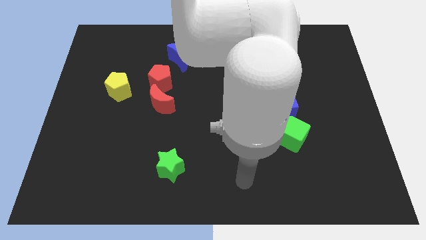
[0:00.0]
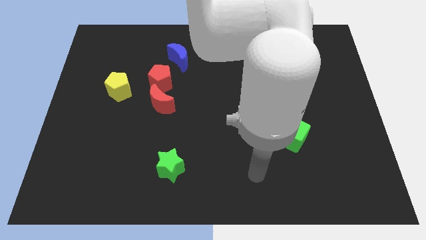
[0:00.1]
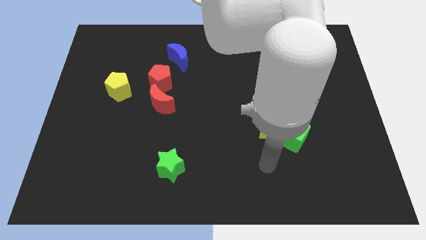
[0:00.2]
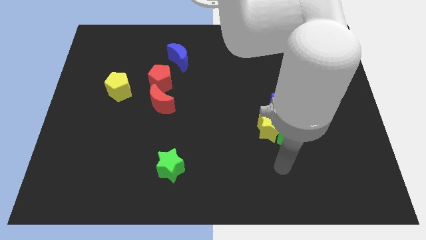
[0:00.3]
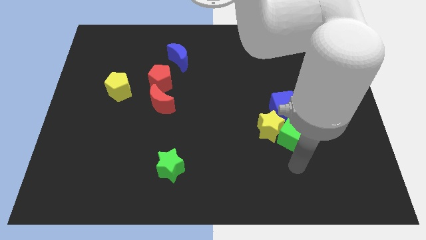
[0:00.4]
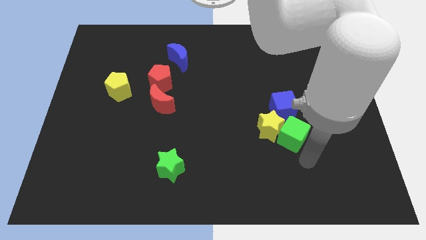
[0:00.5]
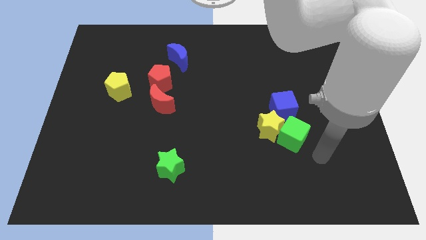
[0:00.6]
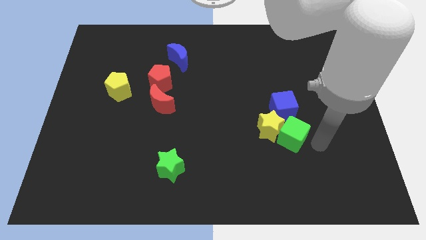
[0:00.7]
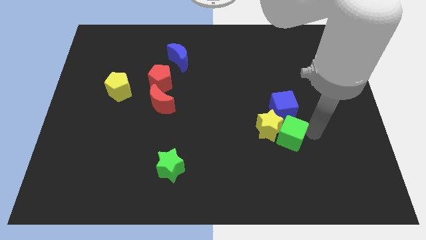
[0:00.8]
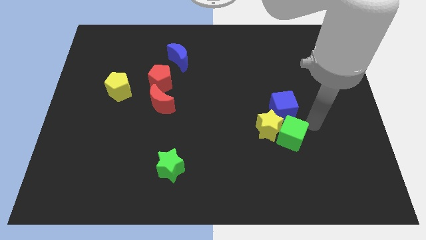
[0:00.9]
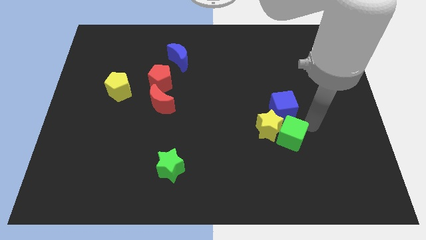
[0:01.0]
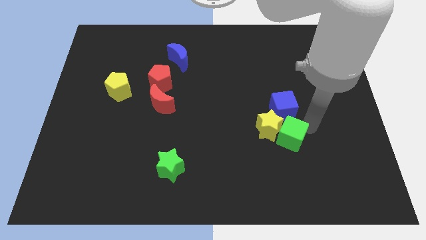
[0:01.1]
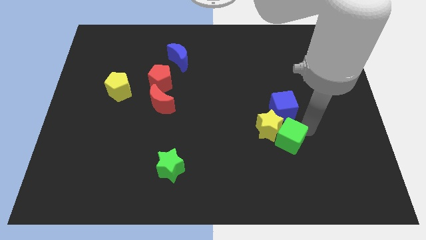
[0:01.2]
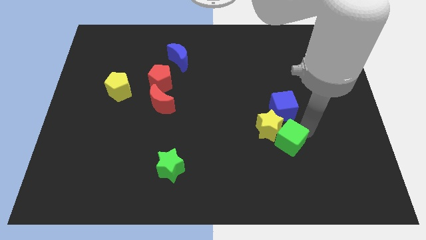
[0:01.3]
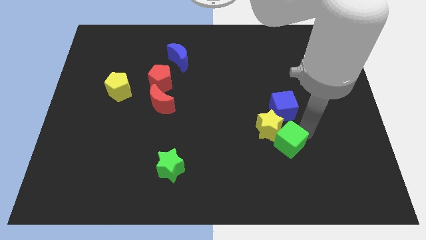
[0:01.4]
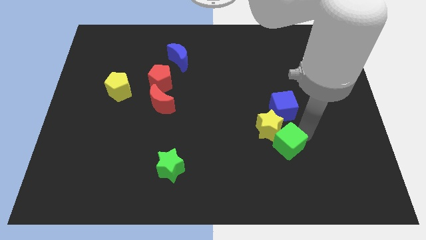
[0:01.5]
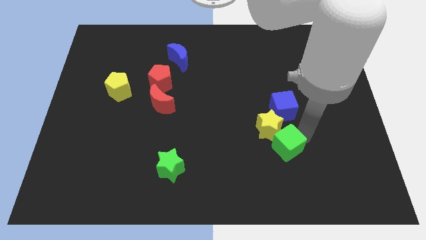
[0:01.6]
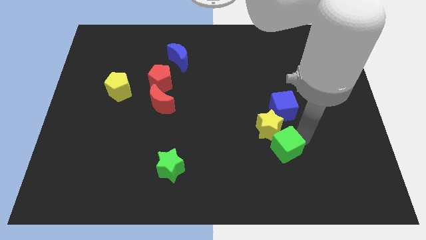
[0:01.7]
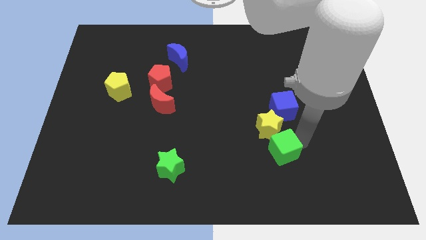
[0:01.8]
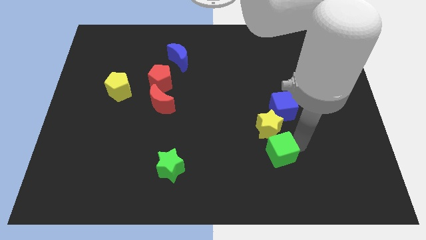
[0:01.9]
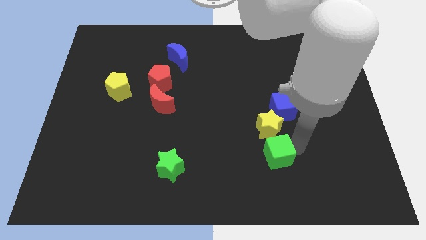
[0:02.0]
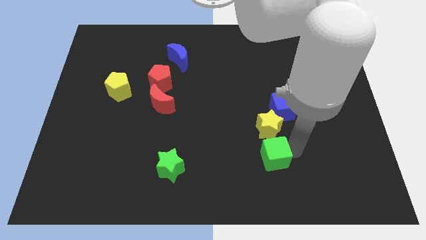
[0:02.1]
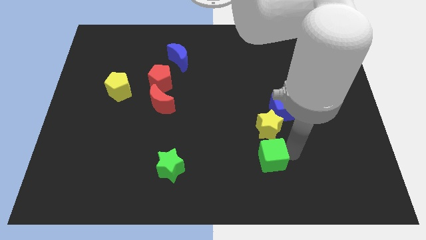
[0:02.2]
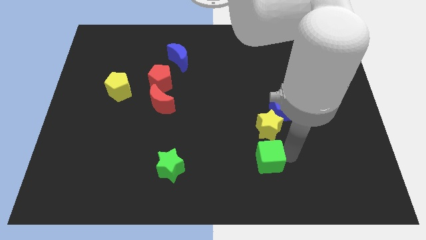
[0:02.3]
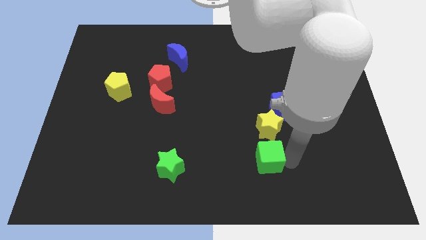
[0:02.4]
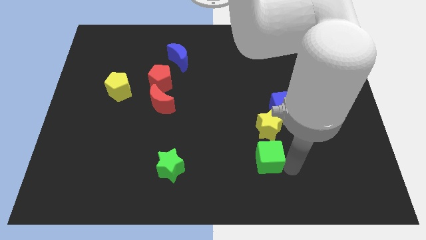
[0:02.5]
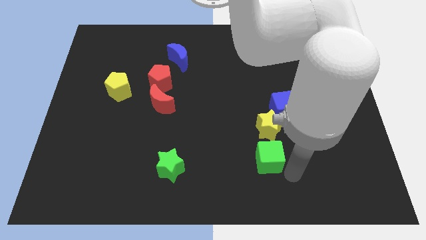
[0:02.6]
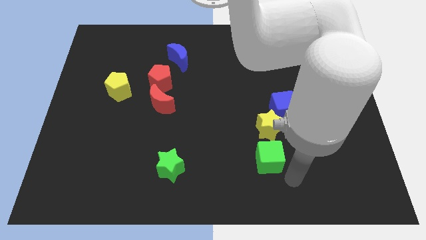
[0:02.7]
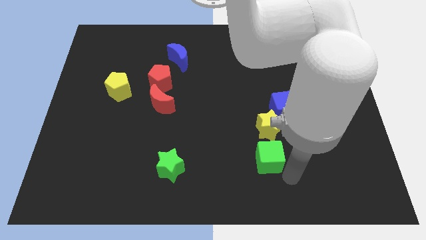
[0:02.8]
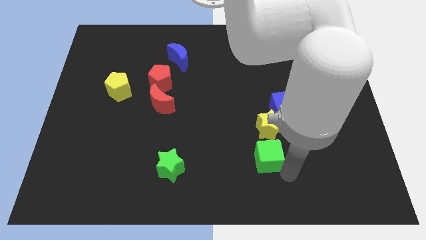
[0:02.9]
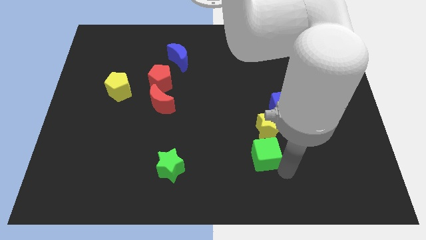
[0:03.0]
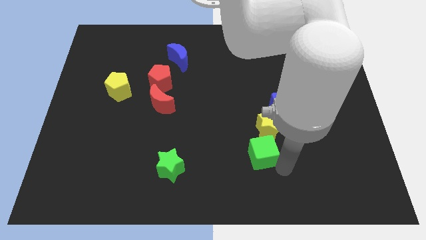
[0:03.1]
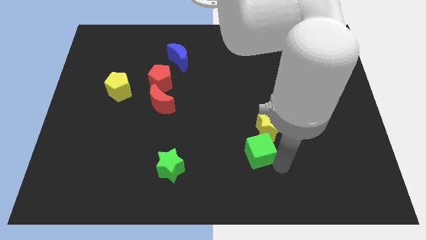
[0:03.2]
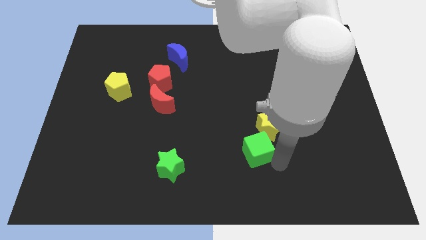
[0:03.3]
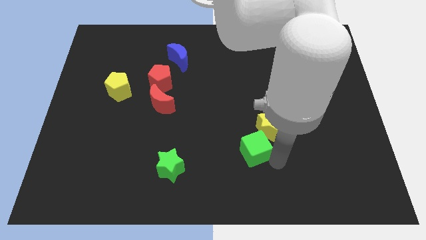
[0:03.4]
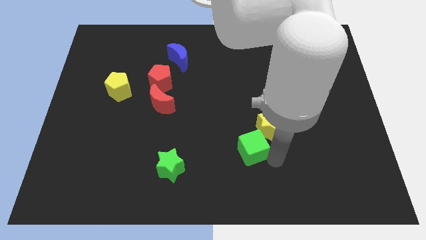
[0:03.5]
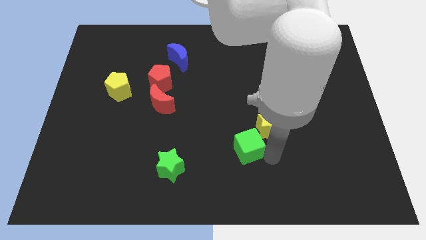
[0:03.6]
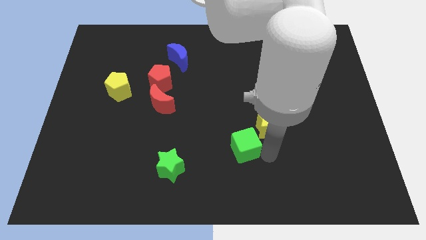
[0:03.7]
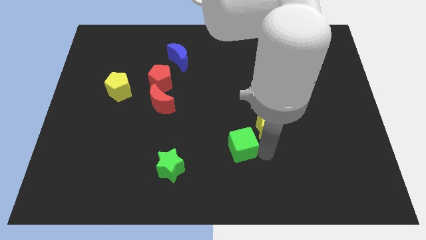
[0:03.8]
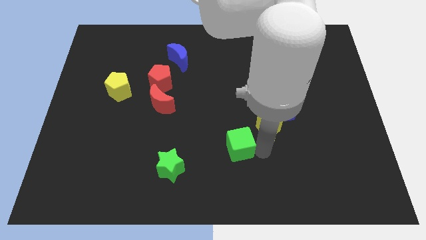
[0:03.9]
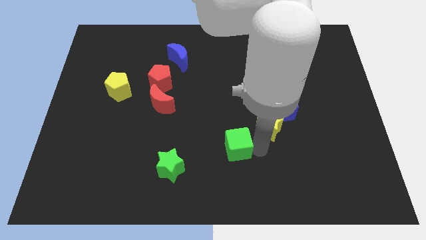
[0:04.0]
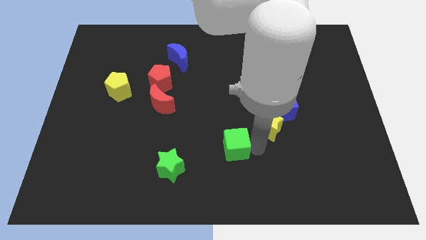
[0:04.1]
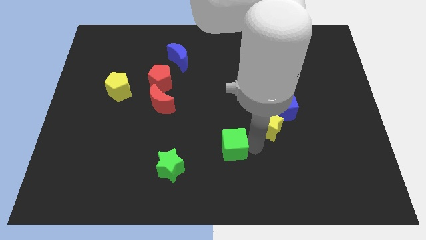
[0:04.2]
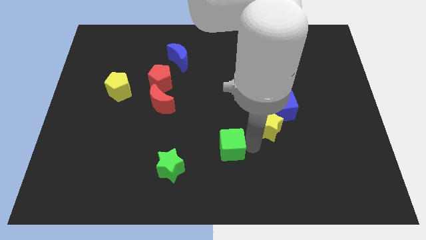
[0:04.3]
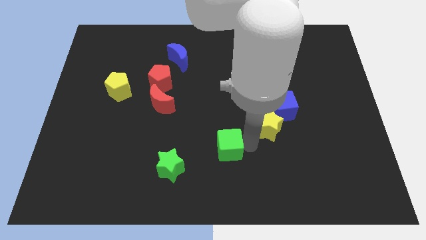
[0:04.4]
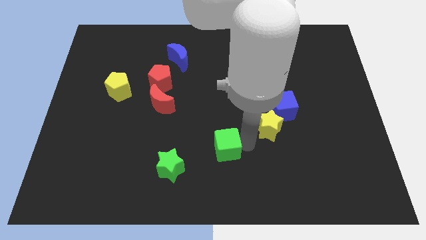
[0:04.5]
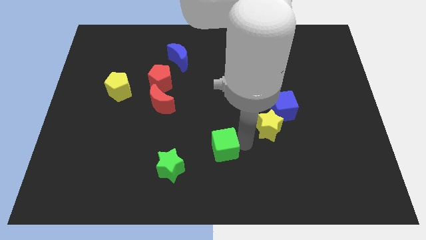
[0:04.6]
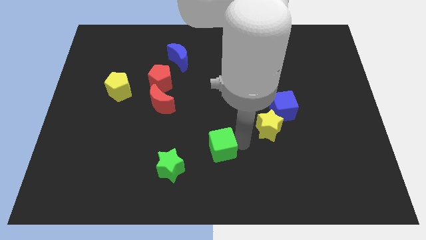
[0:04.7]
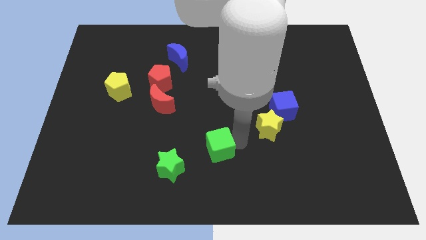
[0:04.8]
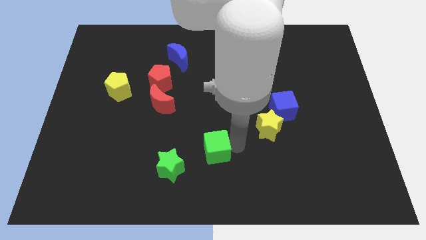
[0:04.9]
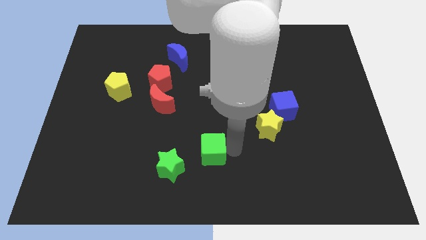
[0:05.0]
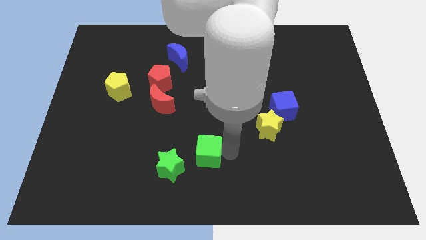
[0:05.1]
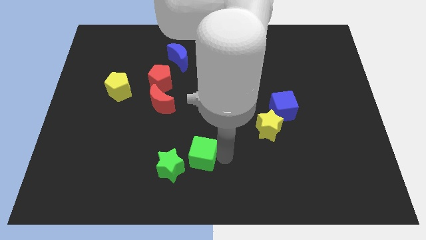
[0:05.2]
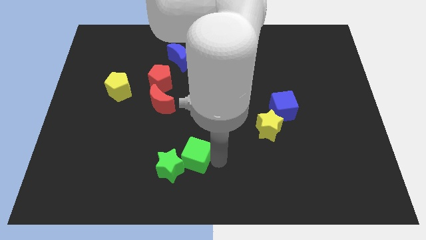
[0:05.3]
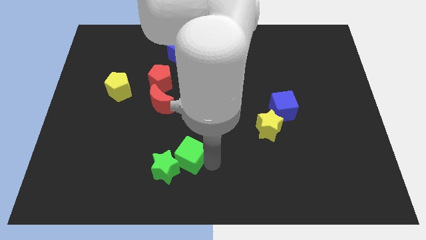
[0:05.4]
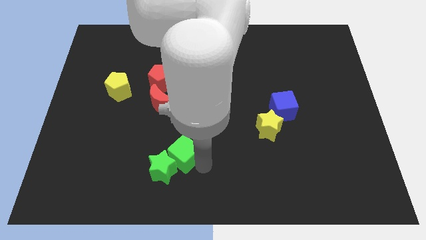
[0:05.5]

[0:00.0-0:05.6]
move the green cube to the top of the green star

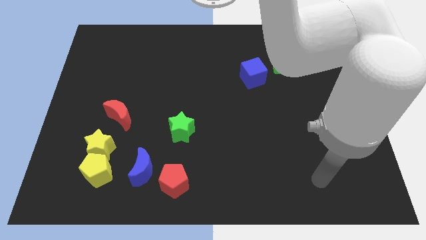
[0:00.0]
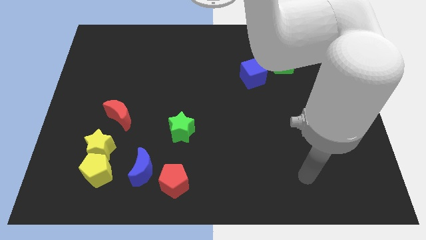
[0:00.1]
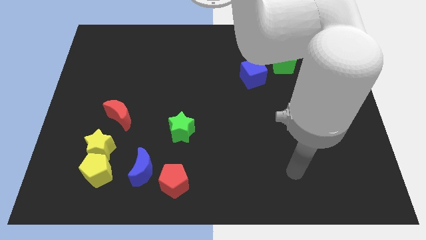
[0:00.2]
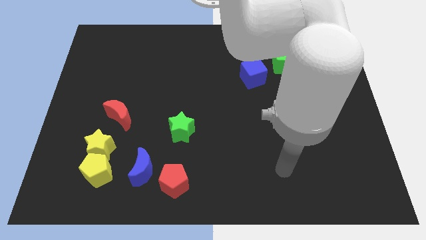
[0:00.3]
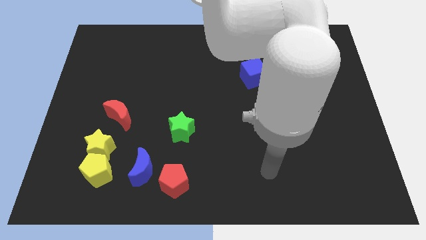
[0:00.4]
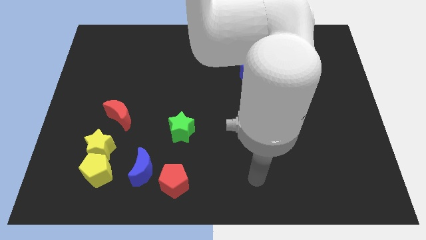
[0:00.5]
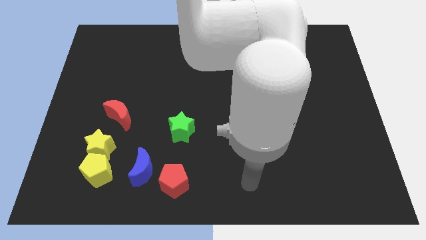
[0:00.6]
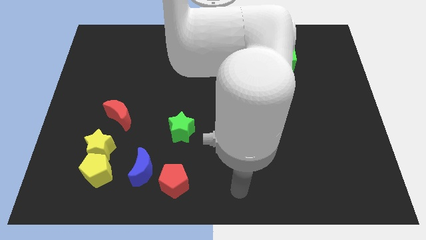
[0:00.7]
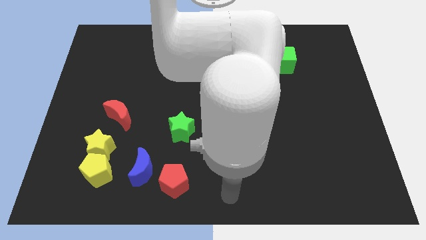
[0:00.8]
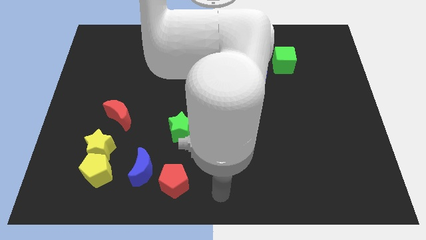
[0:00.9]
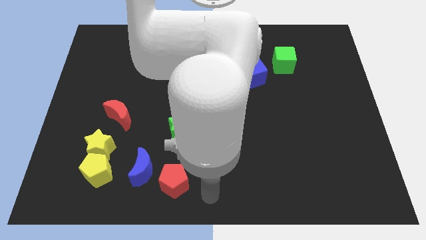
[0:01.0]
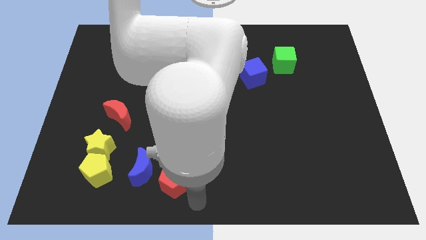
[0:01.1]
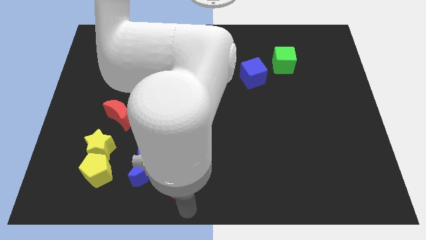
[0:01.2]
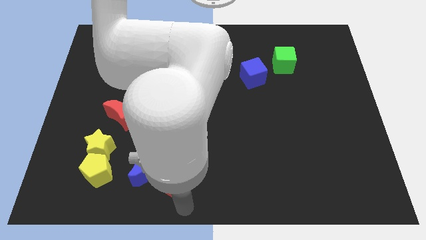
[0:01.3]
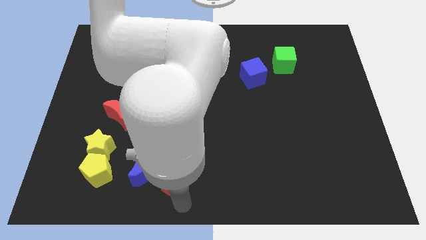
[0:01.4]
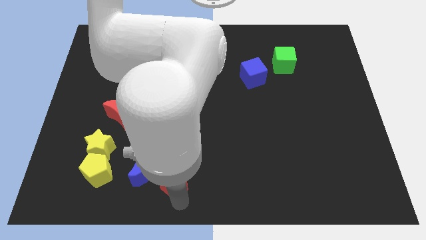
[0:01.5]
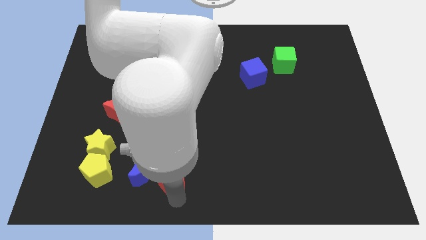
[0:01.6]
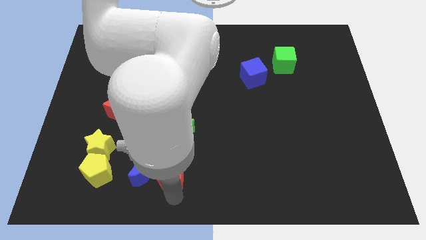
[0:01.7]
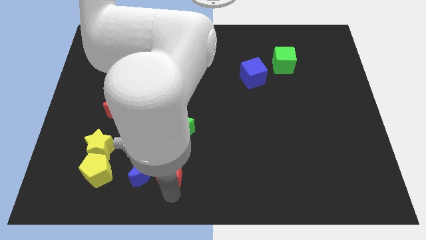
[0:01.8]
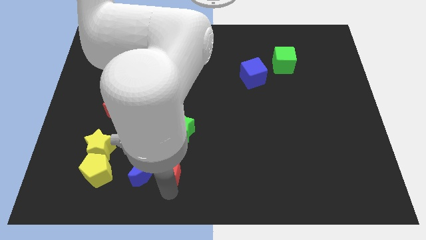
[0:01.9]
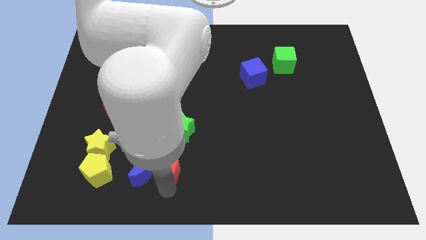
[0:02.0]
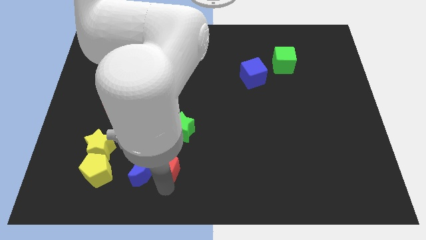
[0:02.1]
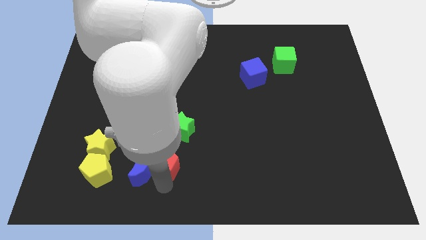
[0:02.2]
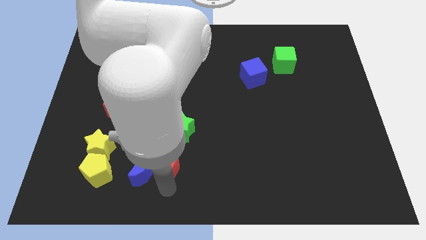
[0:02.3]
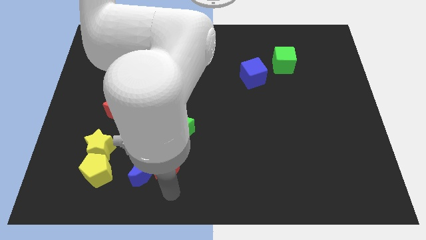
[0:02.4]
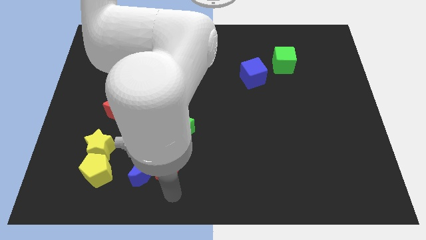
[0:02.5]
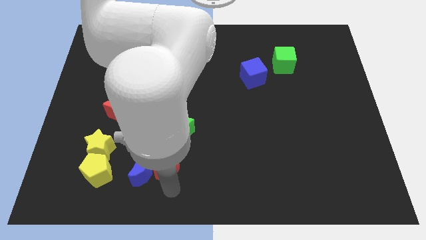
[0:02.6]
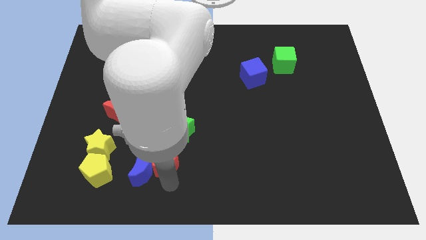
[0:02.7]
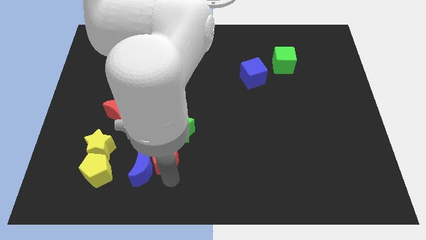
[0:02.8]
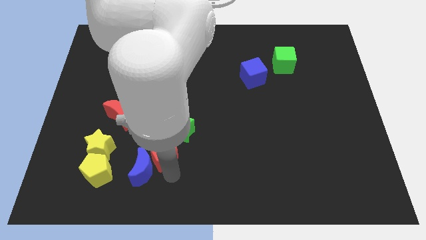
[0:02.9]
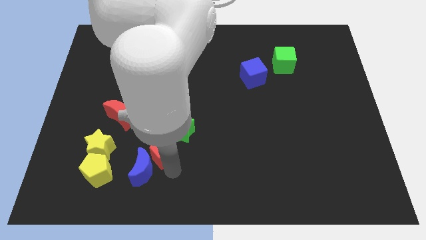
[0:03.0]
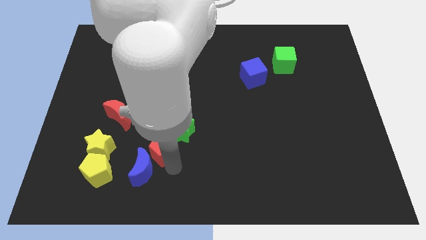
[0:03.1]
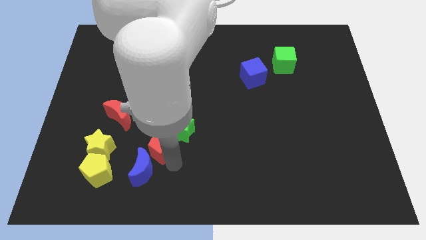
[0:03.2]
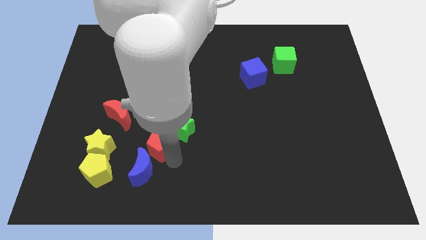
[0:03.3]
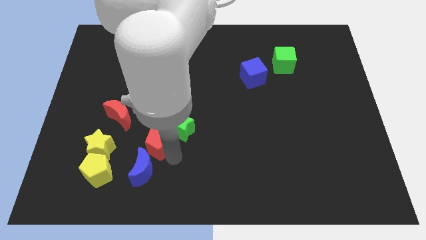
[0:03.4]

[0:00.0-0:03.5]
push the red pentagon to the bottom right of the red moon
